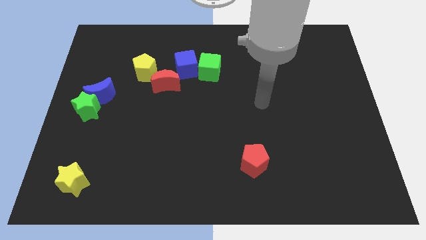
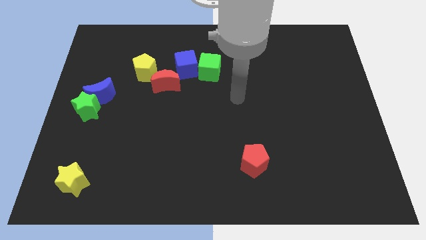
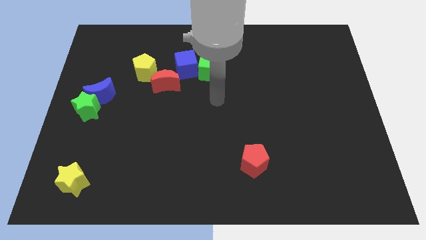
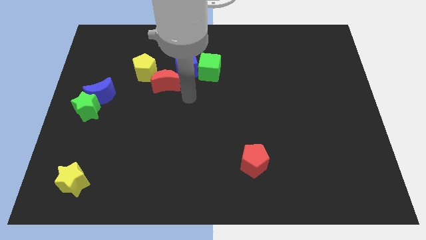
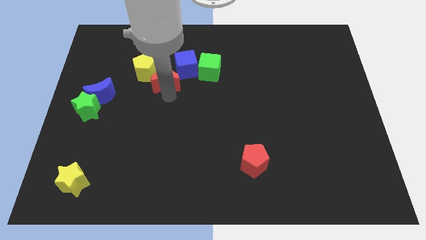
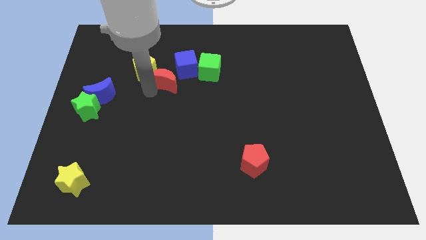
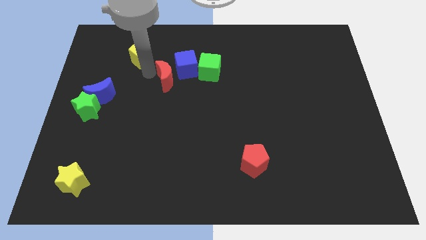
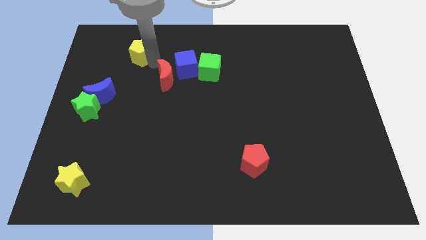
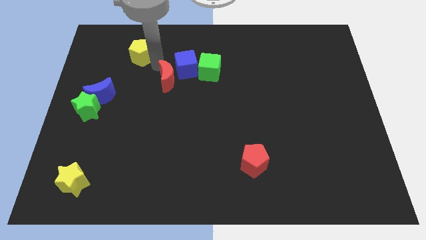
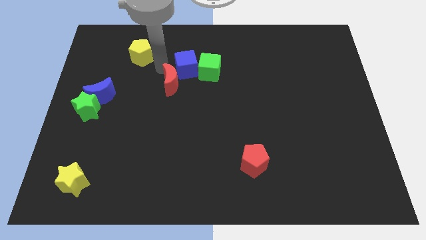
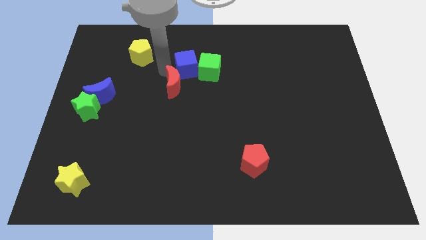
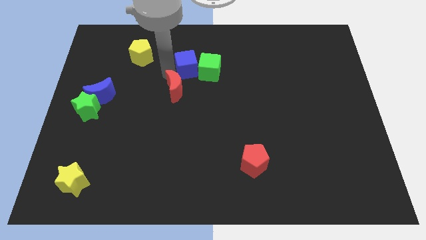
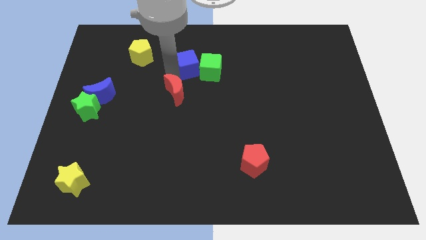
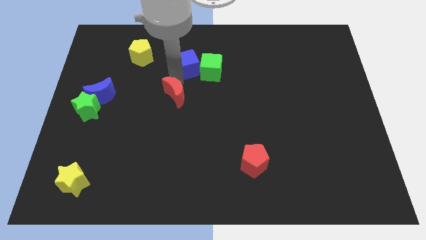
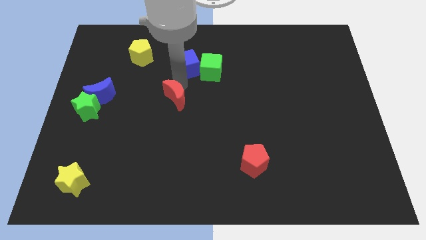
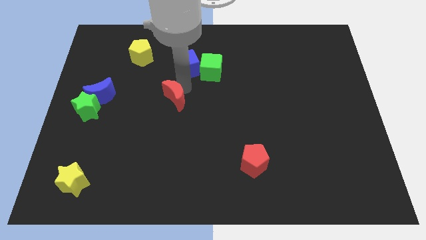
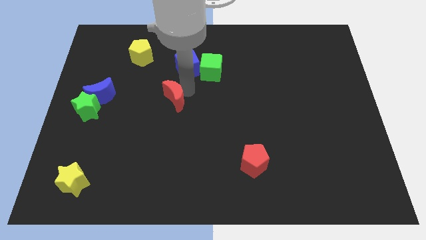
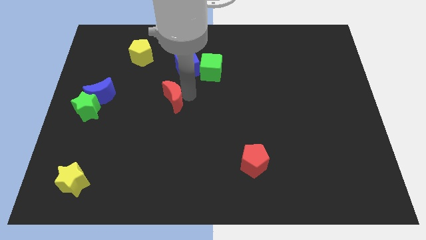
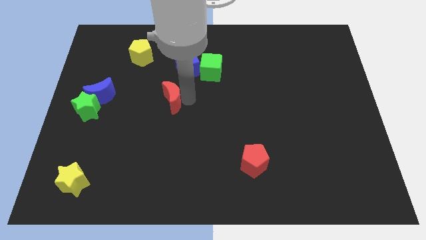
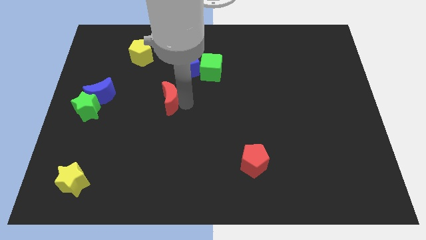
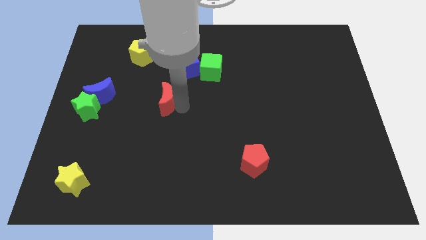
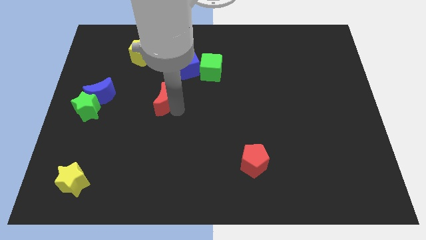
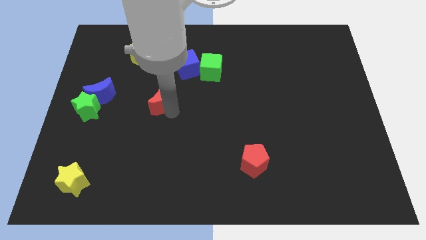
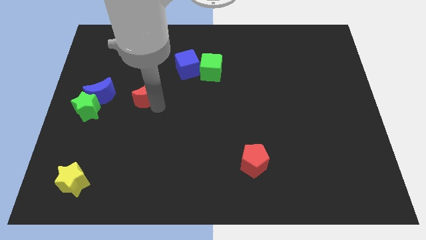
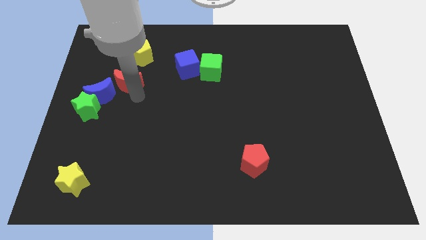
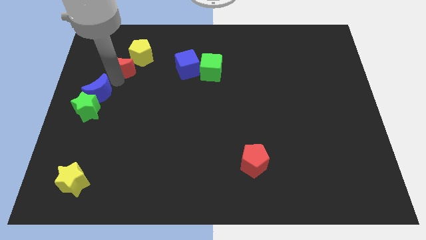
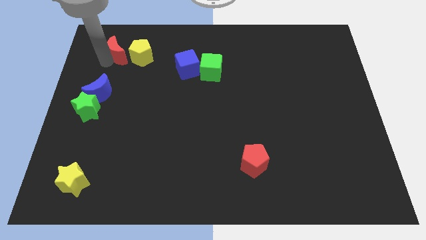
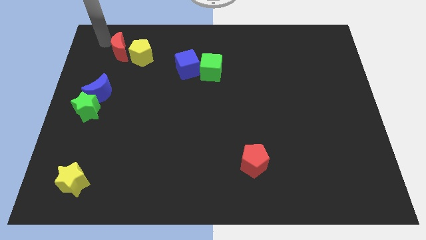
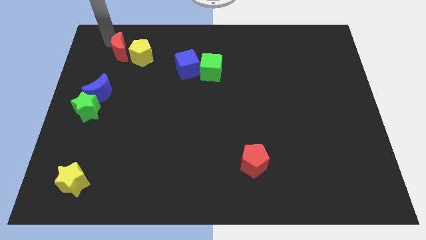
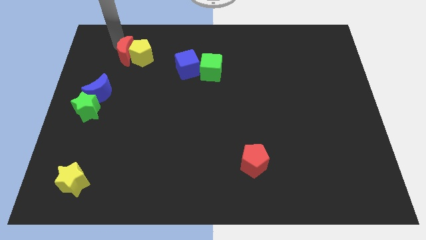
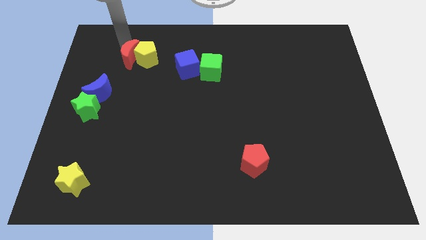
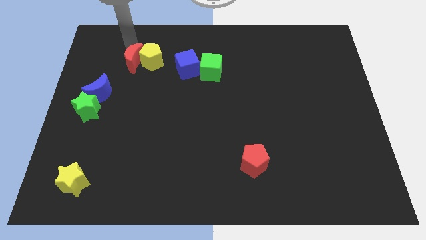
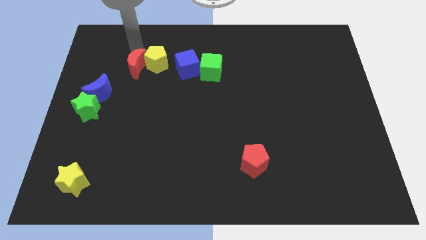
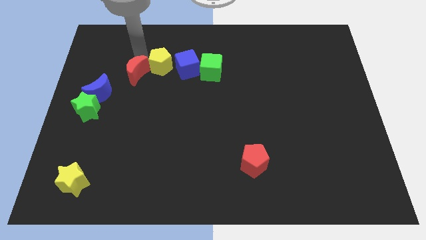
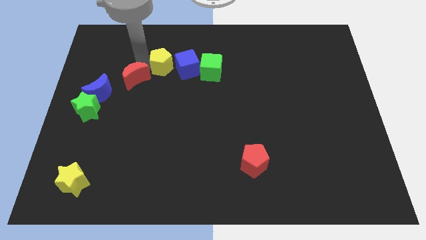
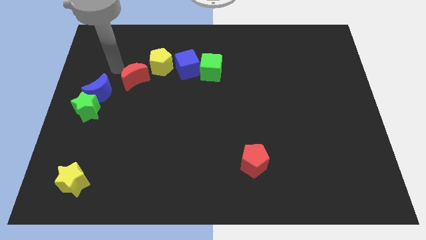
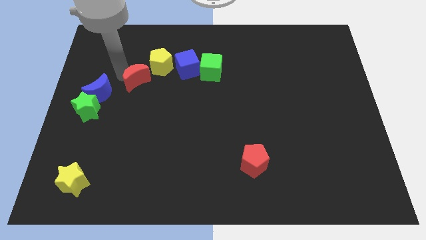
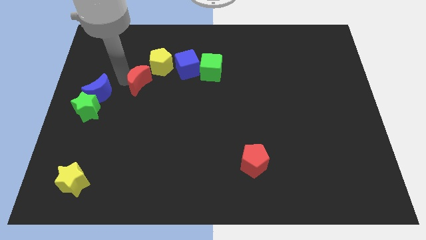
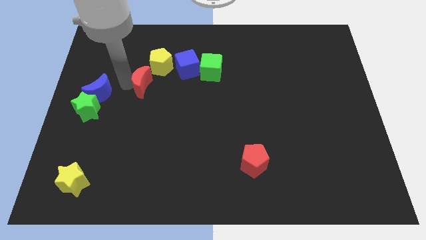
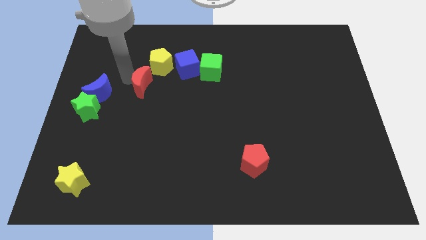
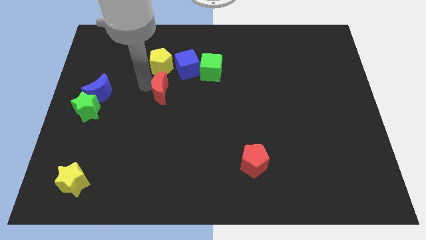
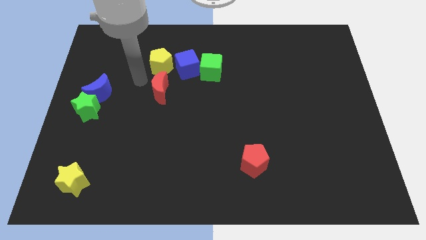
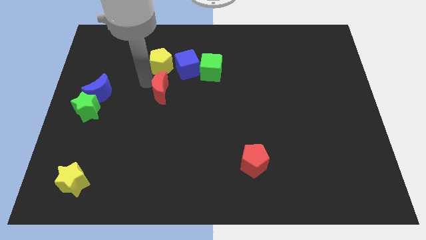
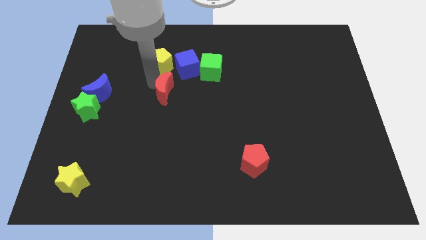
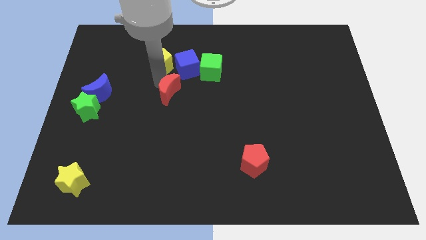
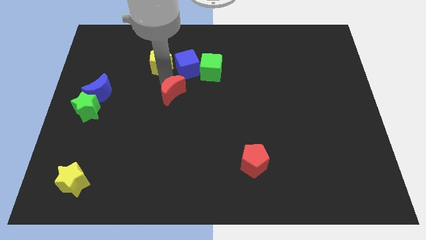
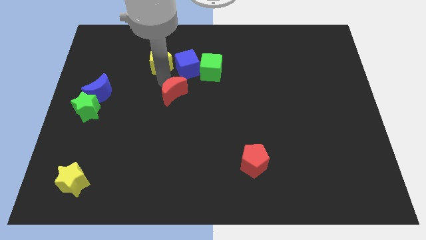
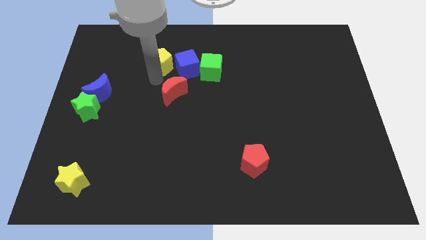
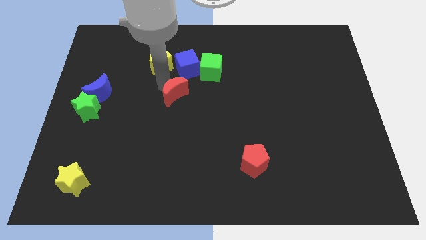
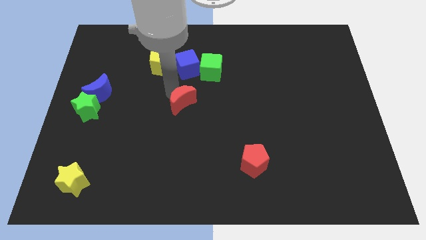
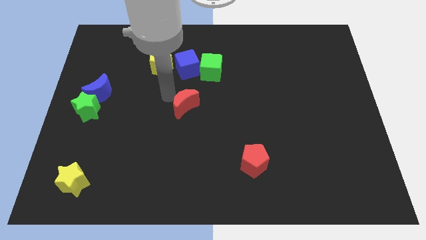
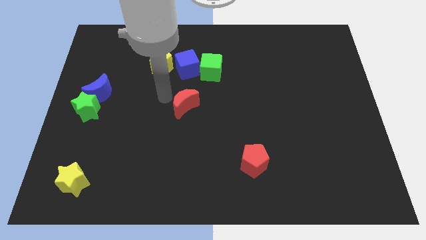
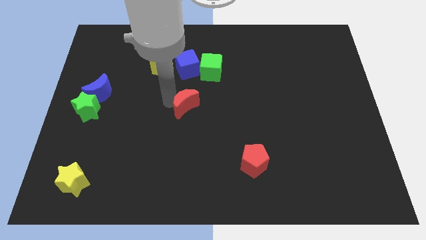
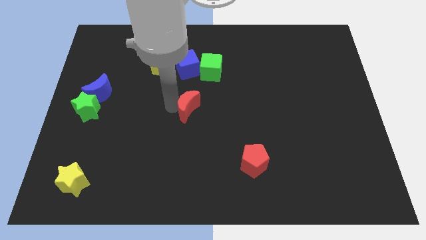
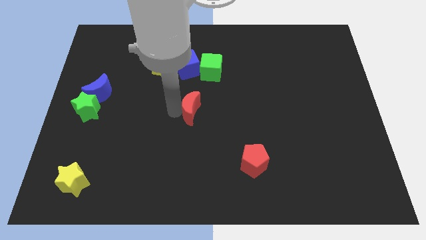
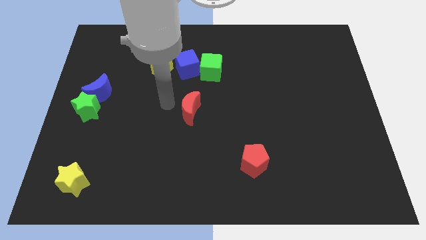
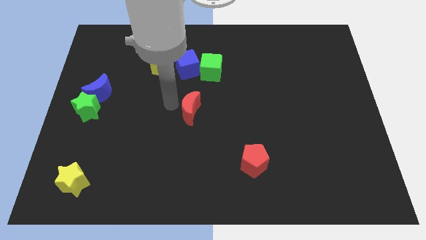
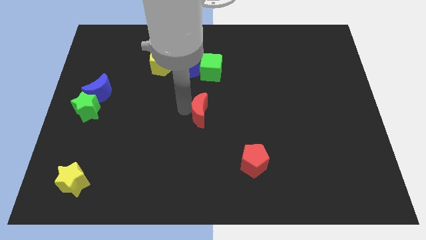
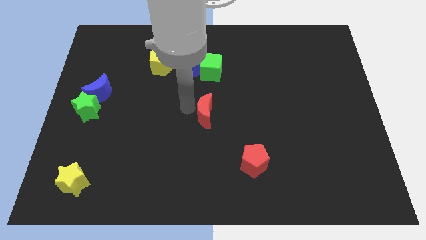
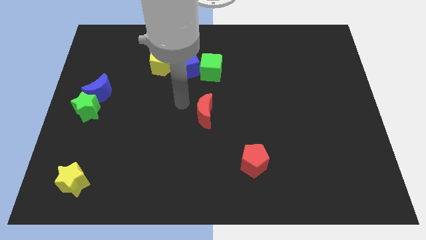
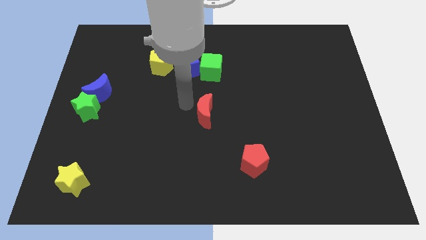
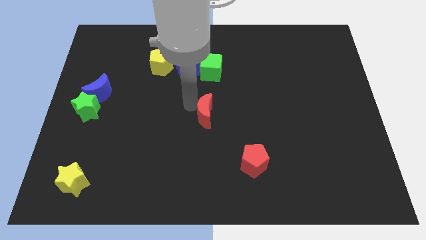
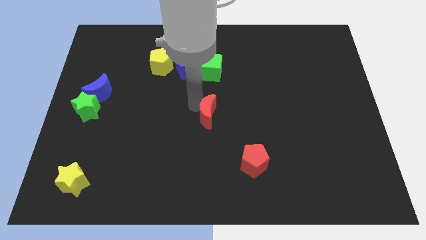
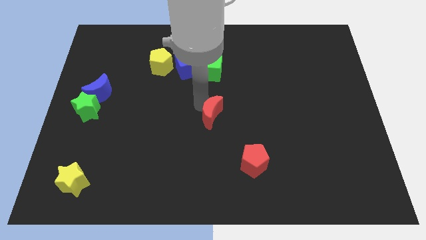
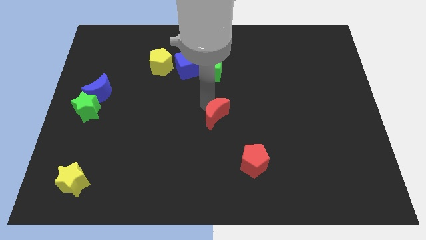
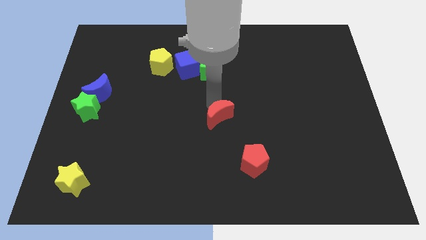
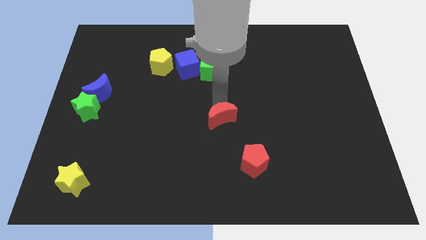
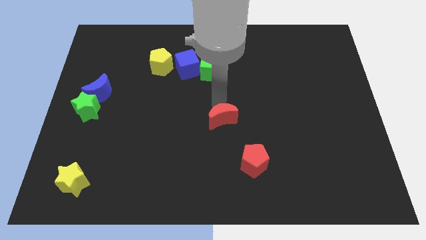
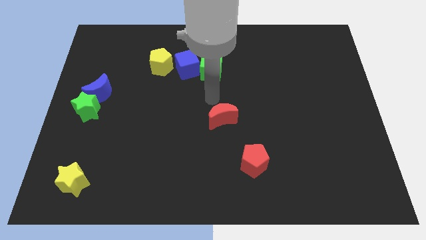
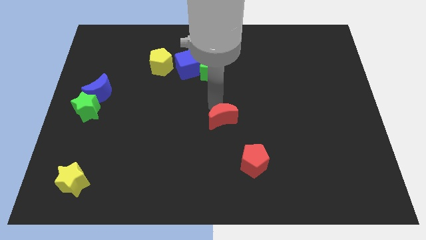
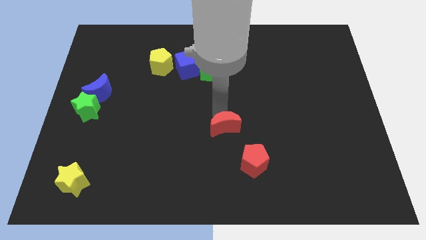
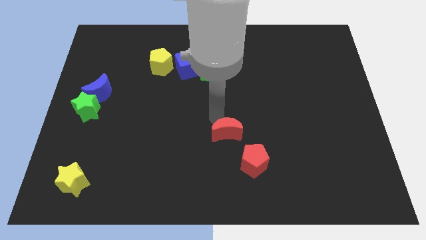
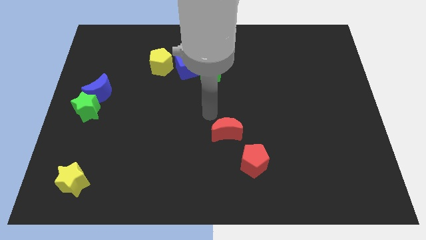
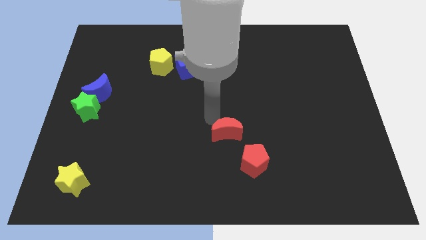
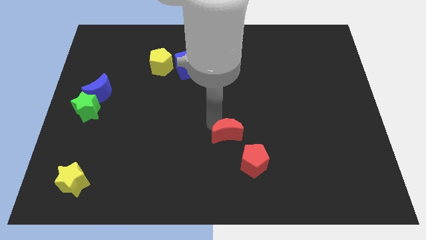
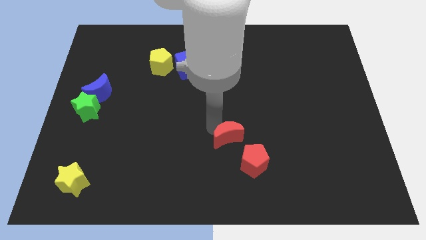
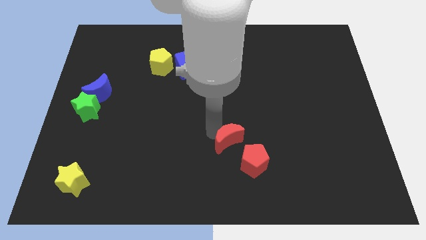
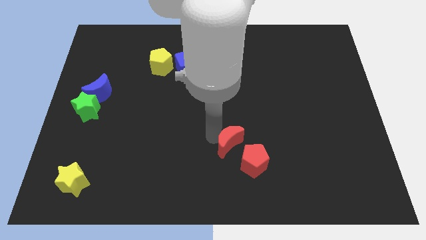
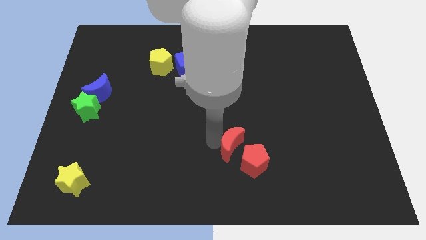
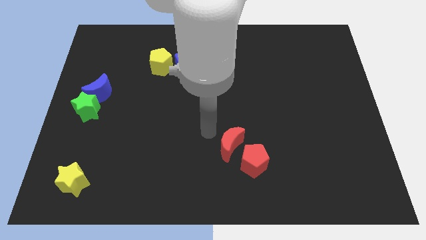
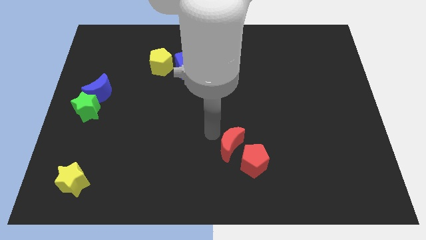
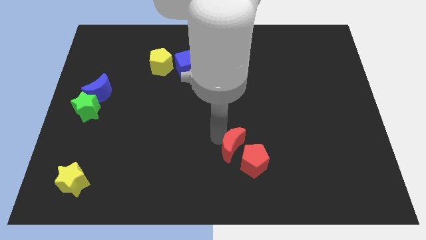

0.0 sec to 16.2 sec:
slide the red moon towards the red pentagon
